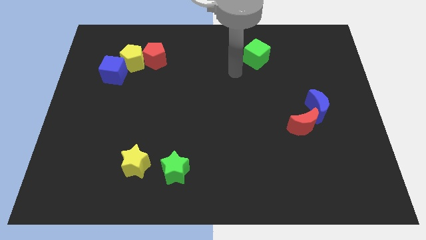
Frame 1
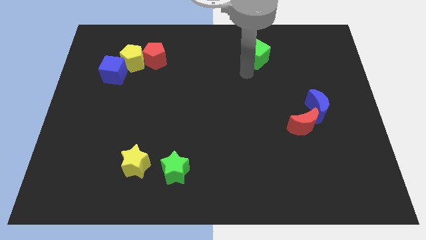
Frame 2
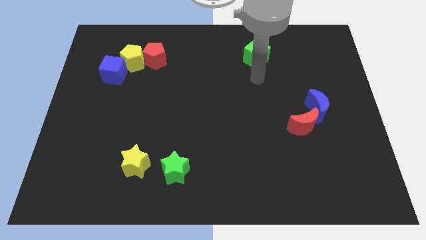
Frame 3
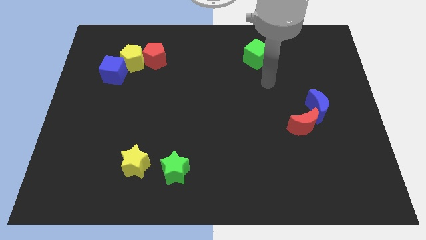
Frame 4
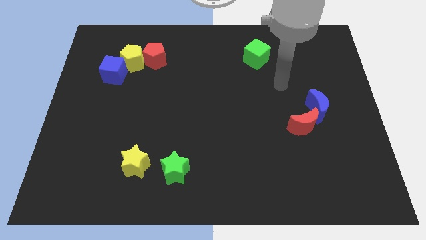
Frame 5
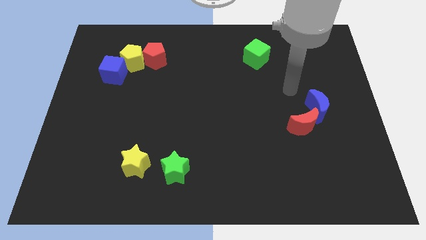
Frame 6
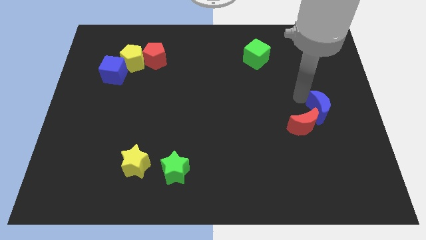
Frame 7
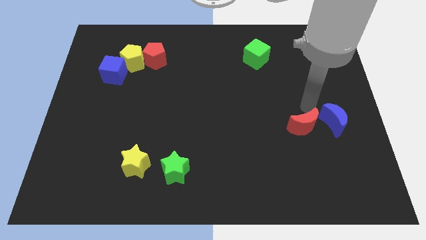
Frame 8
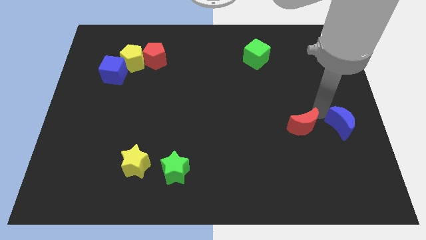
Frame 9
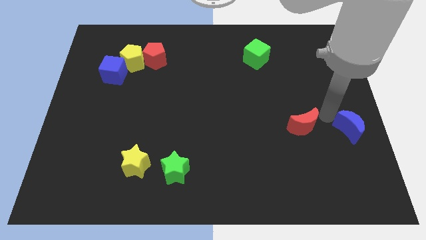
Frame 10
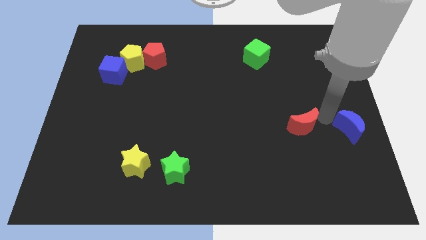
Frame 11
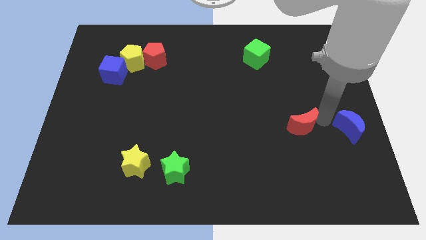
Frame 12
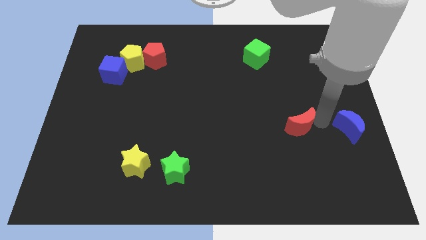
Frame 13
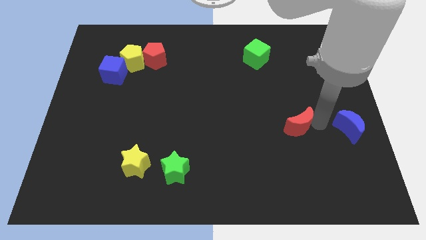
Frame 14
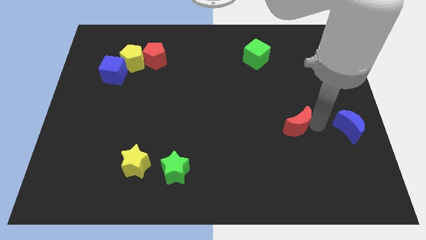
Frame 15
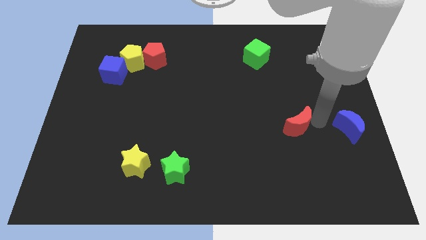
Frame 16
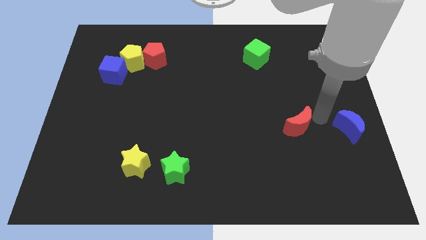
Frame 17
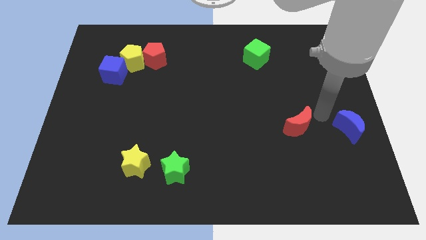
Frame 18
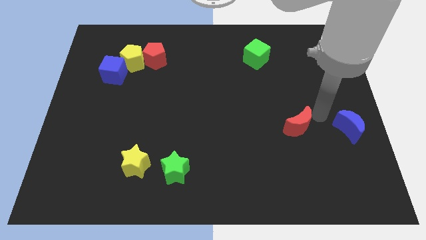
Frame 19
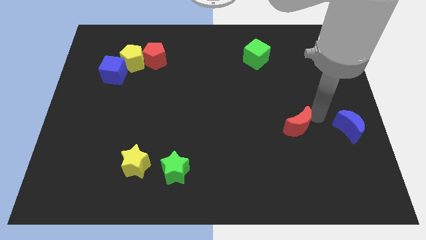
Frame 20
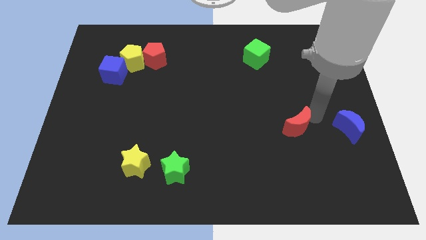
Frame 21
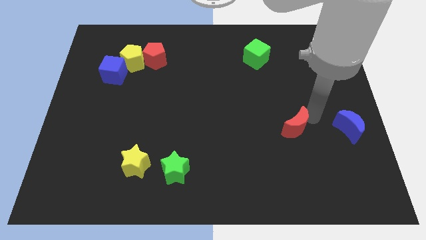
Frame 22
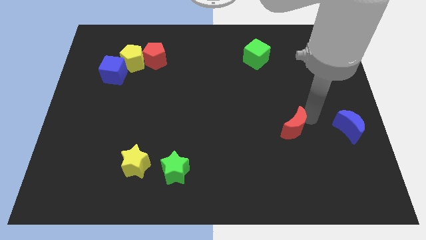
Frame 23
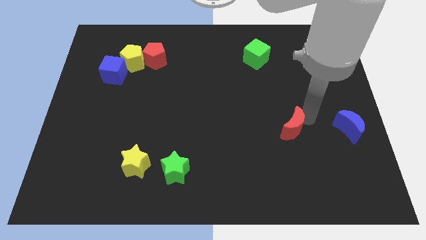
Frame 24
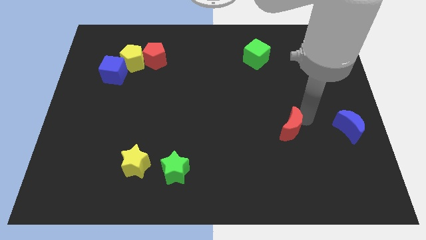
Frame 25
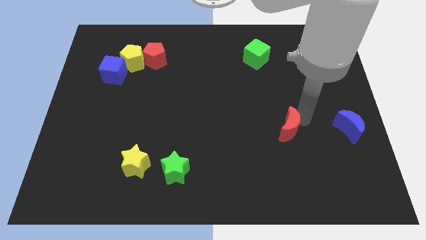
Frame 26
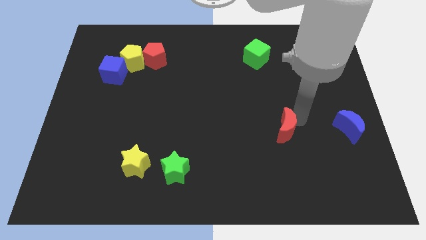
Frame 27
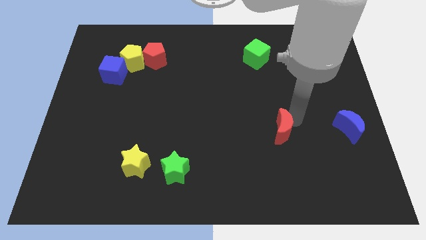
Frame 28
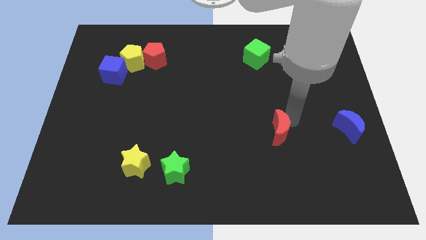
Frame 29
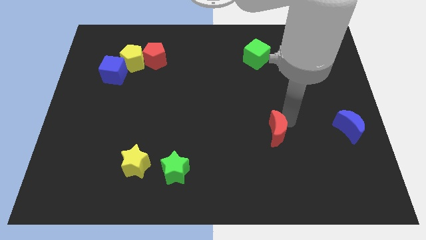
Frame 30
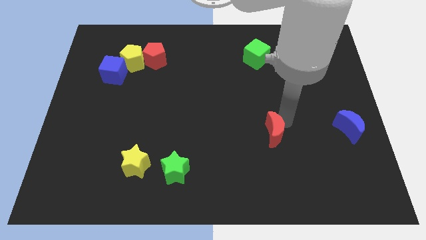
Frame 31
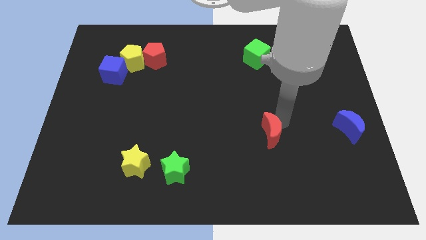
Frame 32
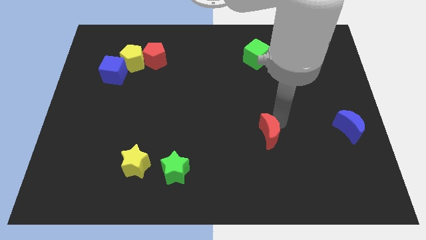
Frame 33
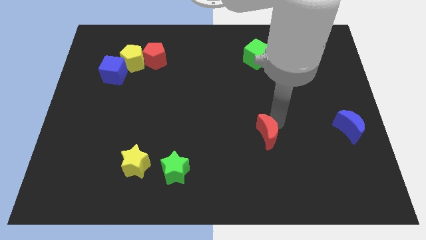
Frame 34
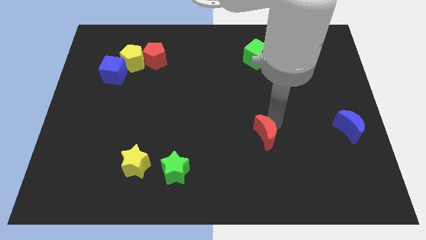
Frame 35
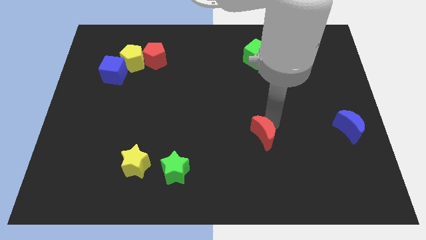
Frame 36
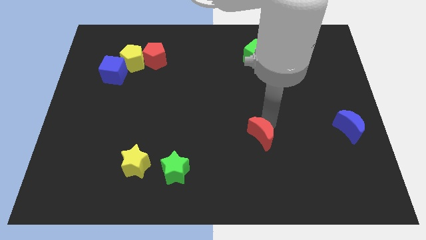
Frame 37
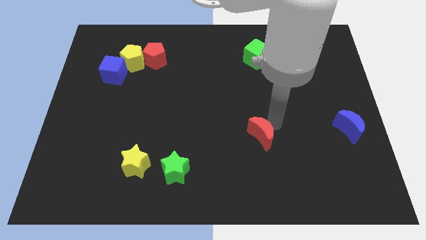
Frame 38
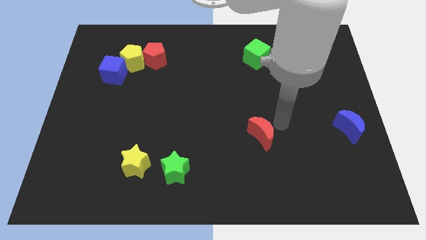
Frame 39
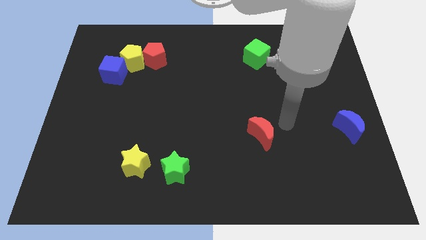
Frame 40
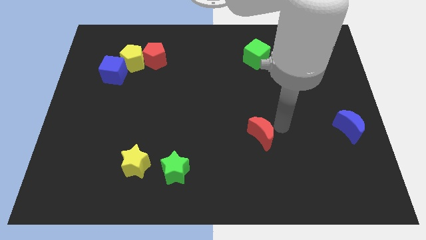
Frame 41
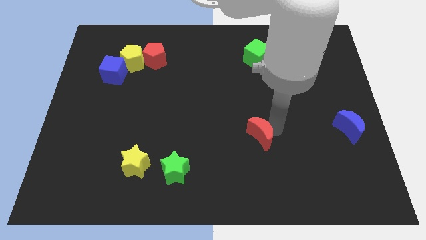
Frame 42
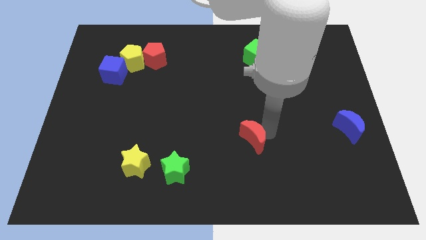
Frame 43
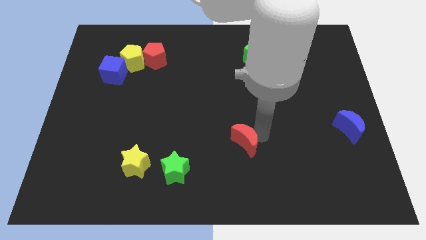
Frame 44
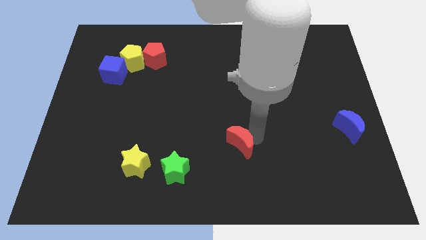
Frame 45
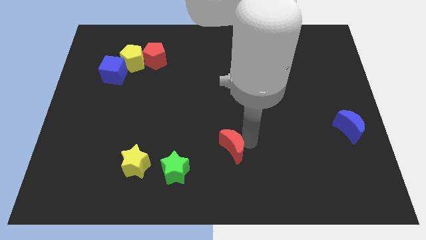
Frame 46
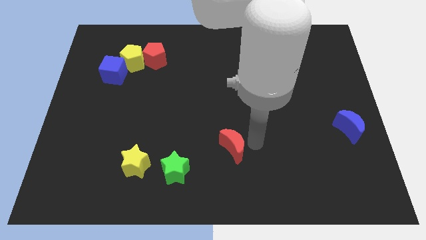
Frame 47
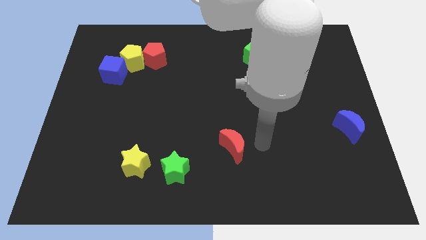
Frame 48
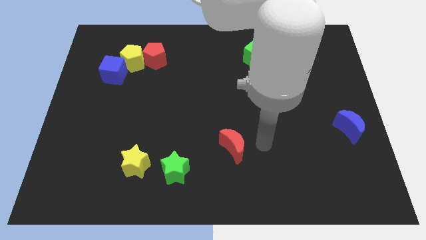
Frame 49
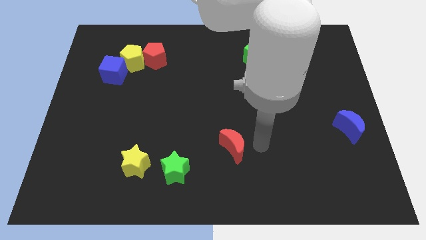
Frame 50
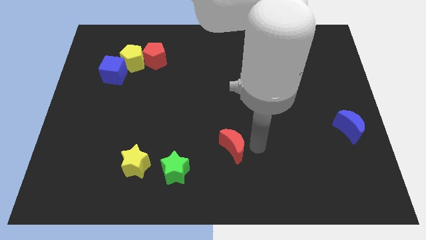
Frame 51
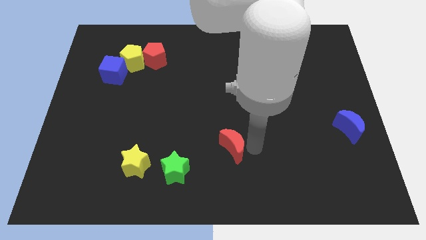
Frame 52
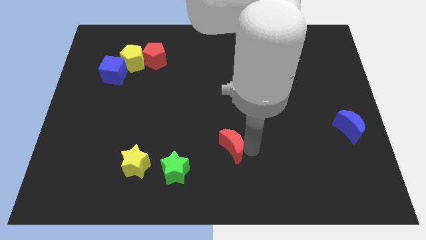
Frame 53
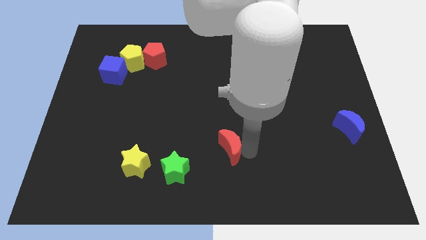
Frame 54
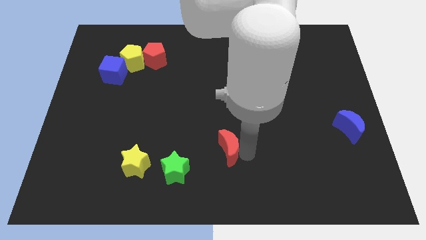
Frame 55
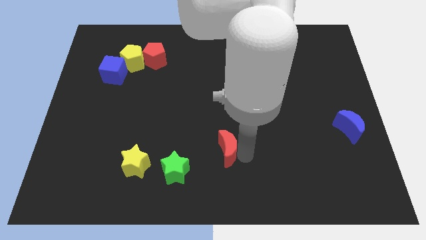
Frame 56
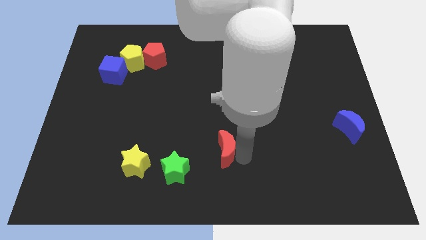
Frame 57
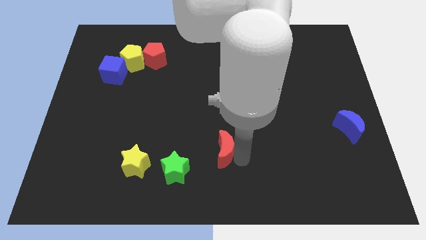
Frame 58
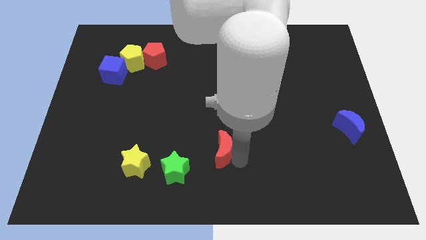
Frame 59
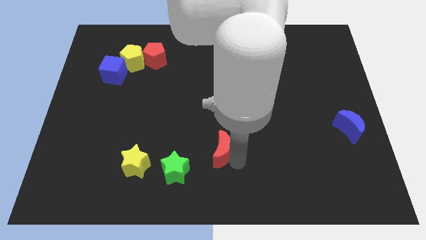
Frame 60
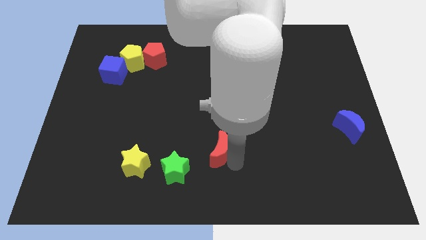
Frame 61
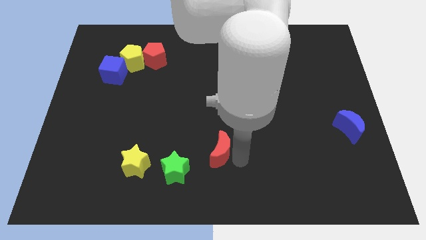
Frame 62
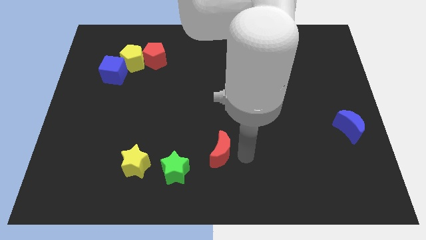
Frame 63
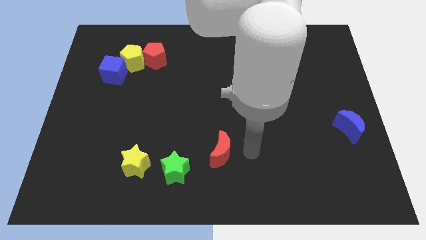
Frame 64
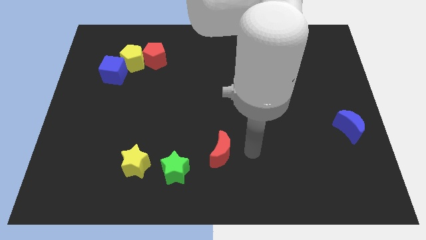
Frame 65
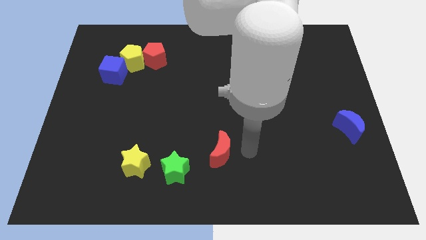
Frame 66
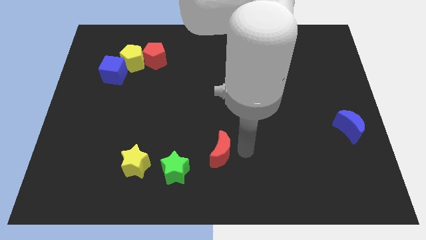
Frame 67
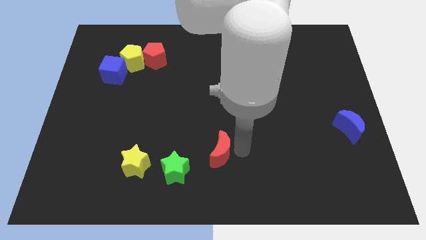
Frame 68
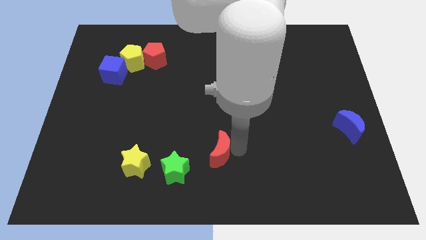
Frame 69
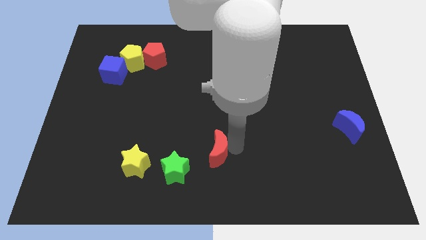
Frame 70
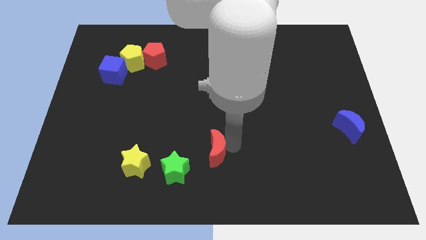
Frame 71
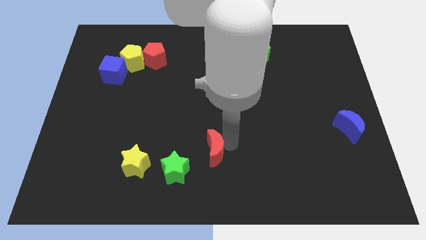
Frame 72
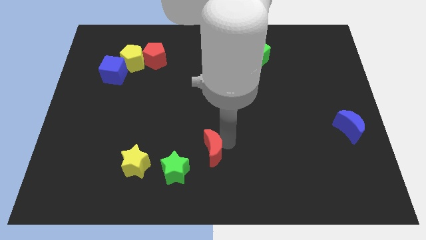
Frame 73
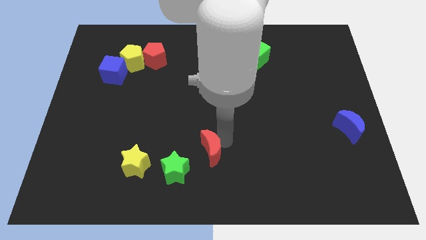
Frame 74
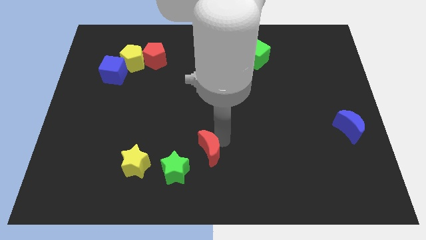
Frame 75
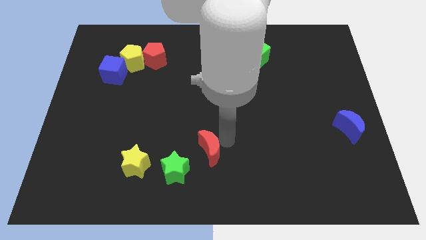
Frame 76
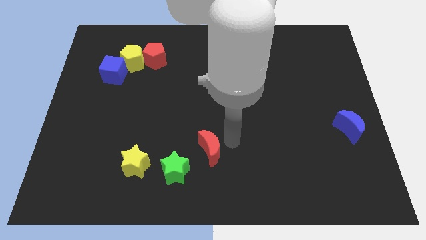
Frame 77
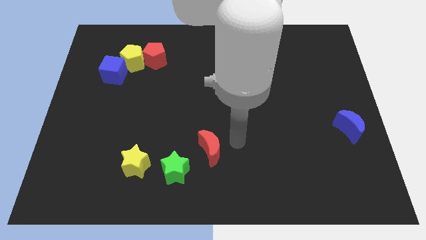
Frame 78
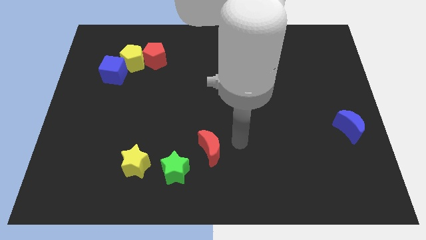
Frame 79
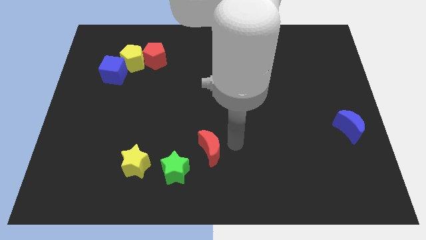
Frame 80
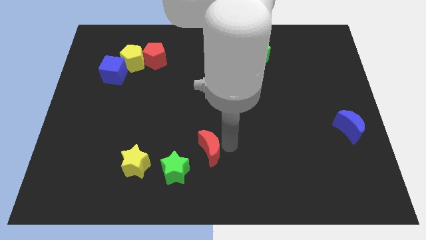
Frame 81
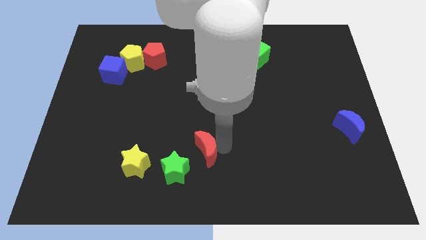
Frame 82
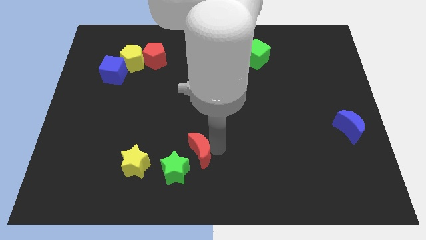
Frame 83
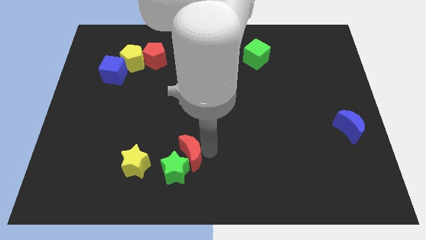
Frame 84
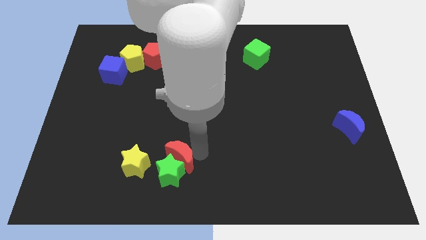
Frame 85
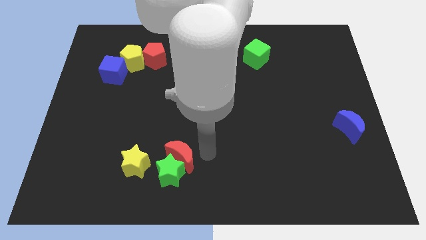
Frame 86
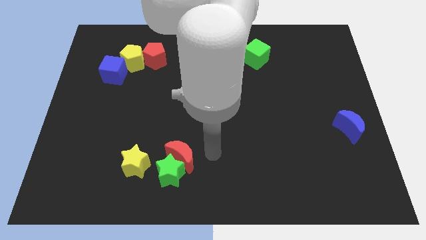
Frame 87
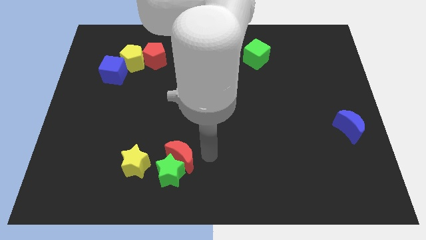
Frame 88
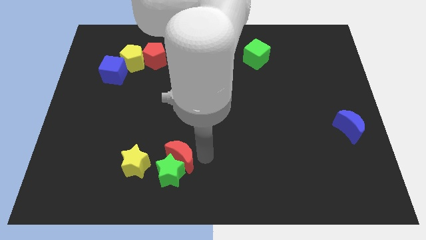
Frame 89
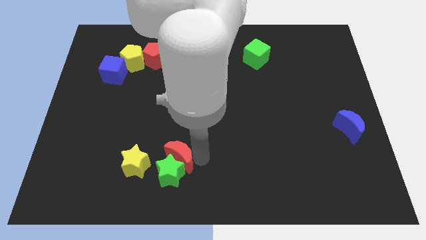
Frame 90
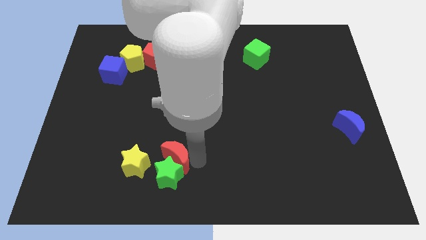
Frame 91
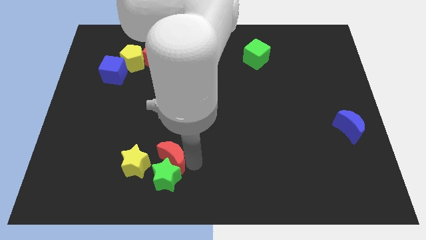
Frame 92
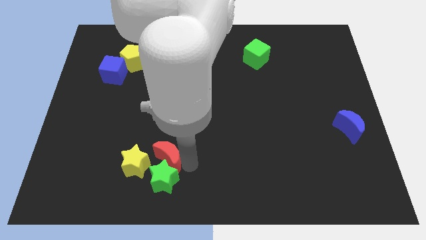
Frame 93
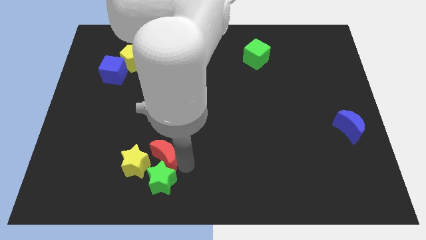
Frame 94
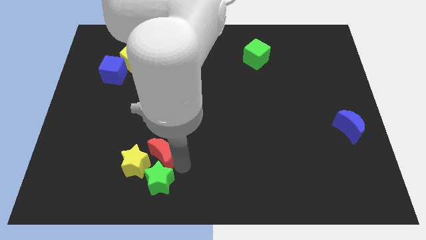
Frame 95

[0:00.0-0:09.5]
push the red moon to the yellow star
